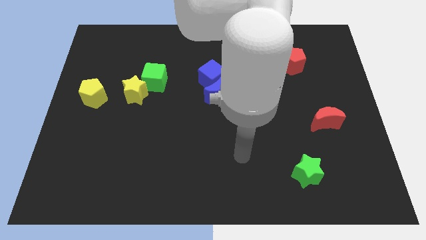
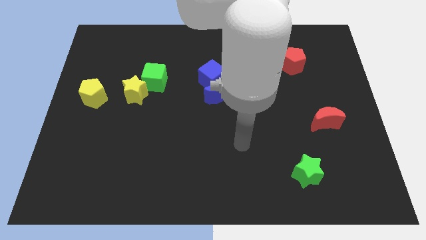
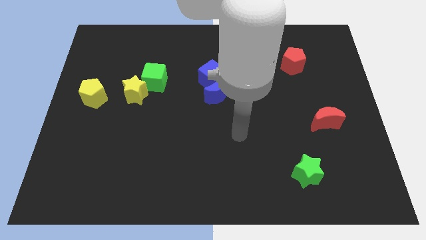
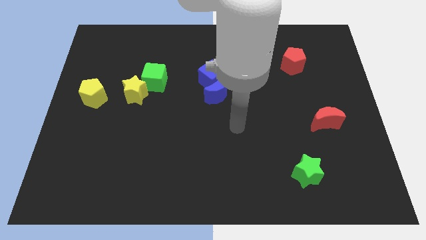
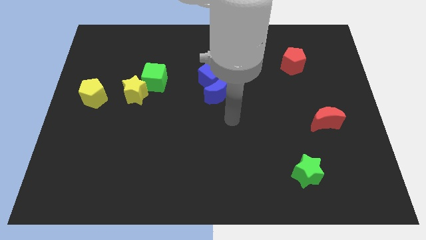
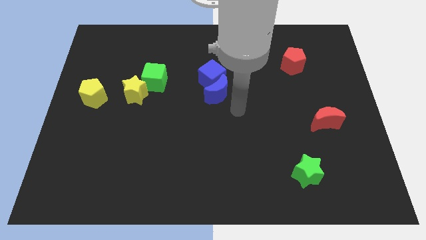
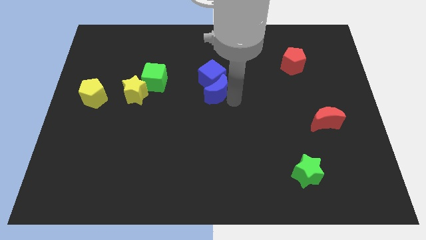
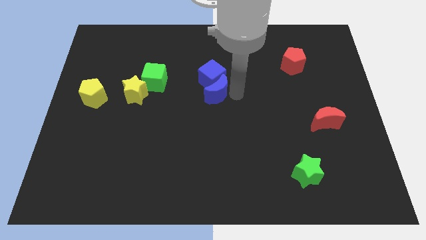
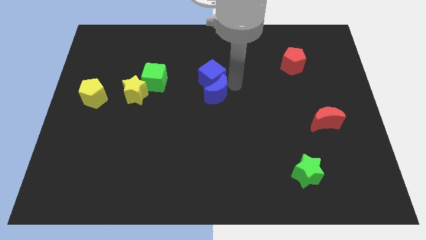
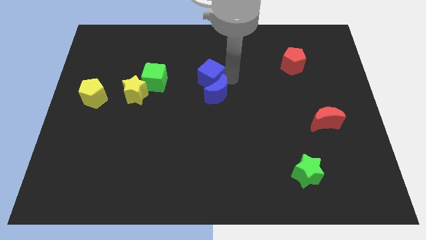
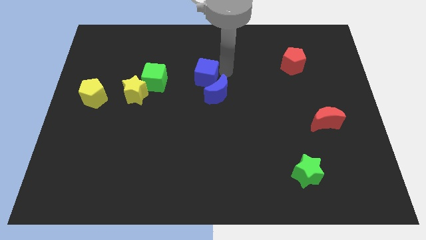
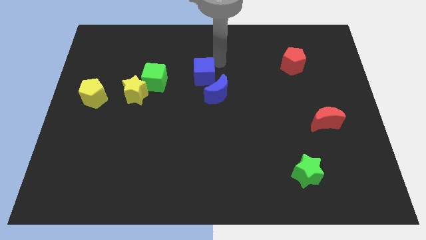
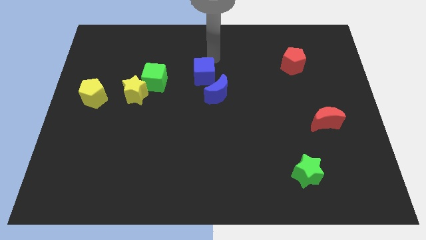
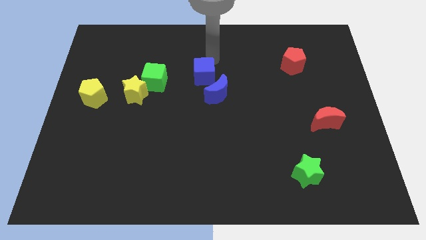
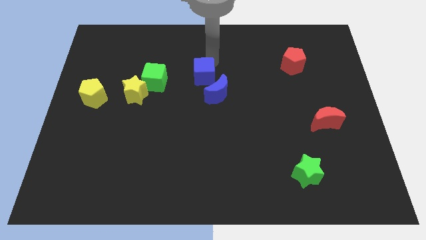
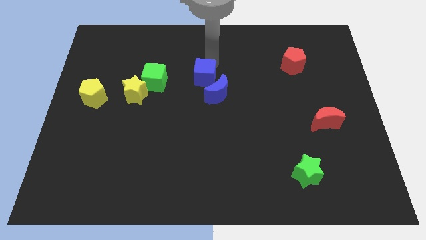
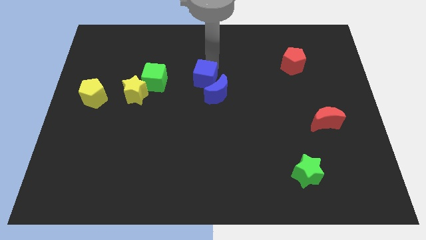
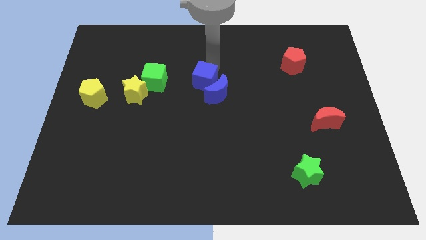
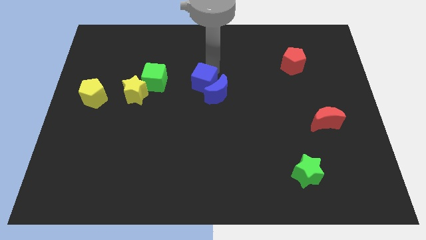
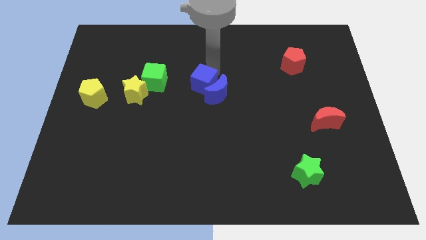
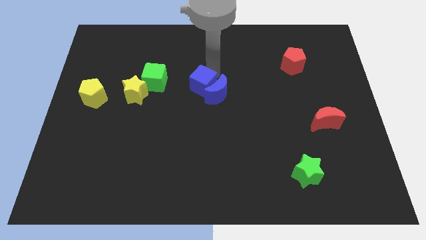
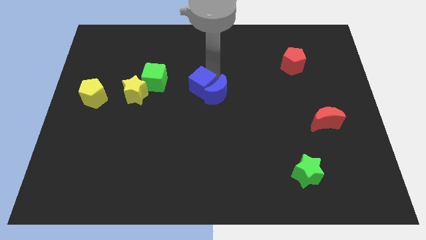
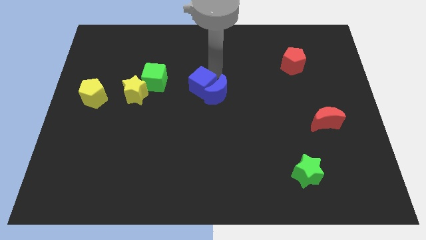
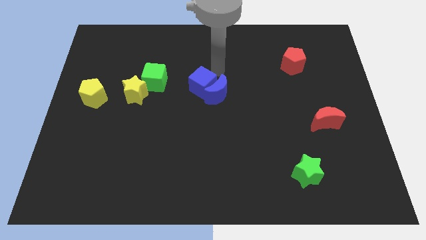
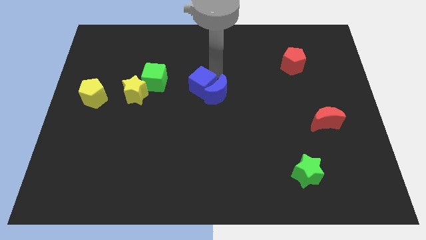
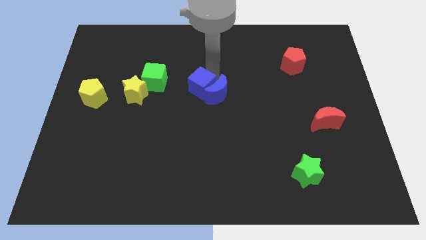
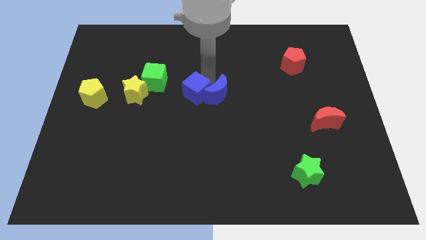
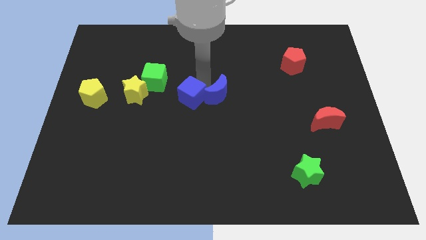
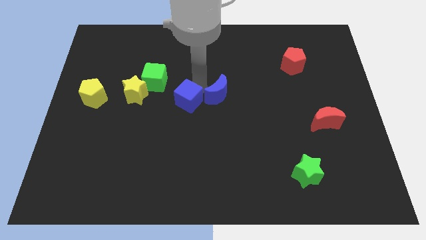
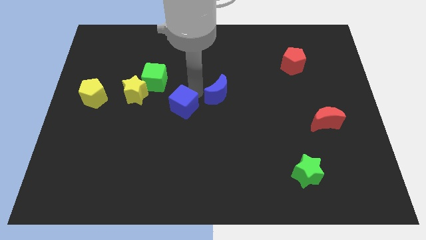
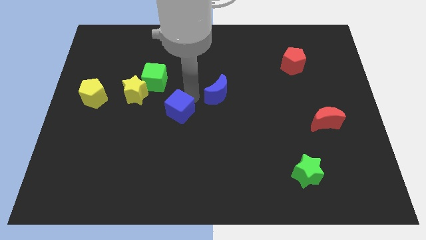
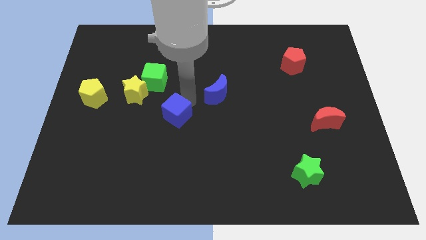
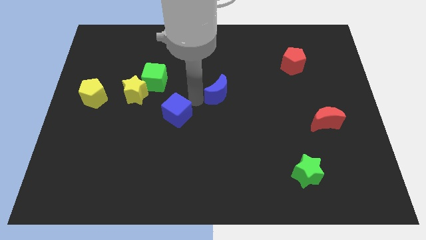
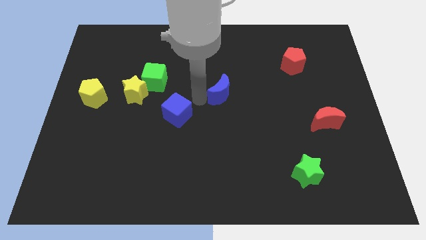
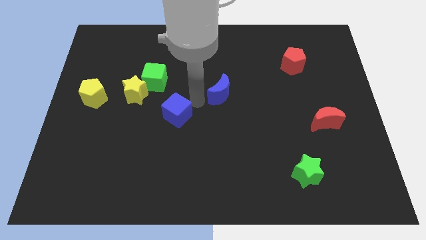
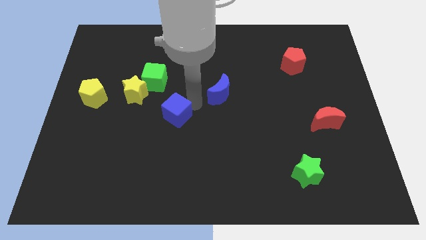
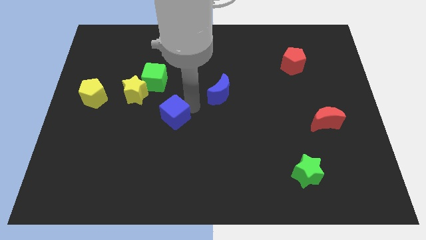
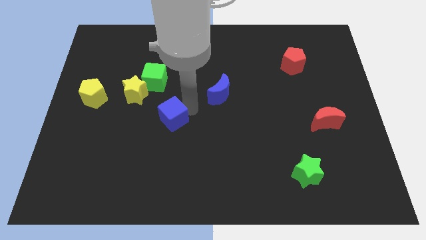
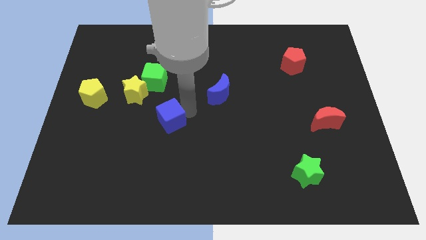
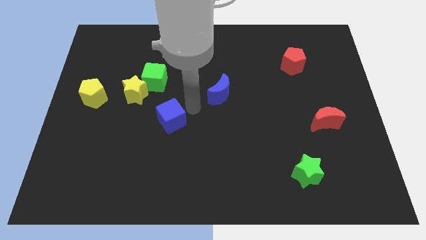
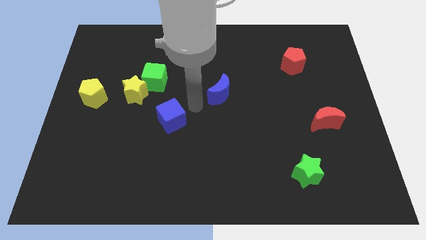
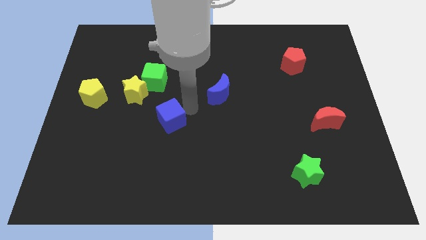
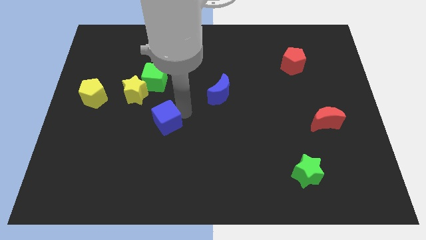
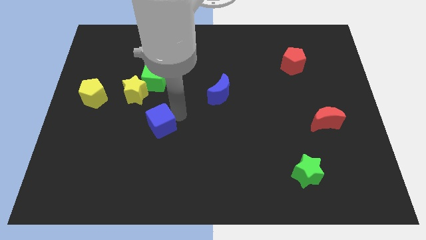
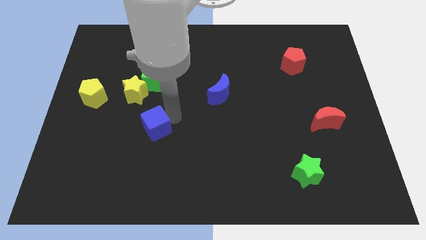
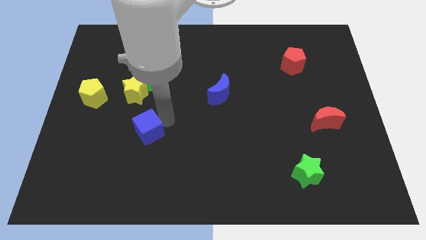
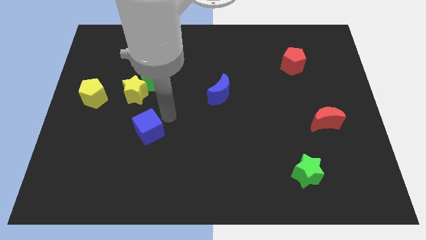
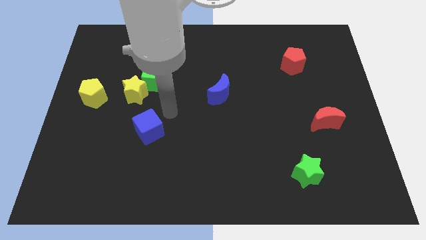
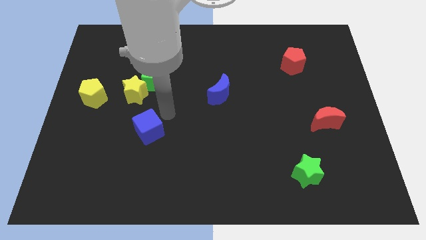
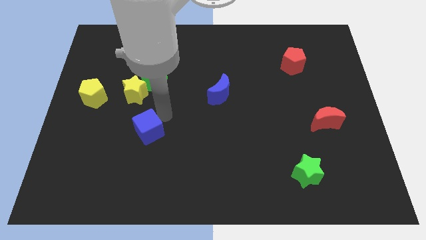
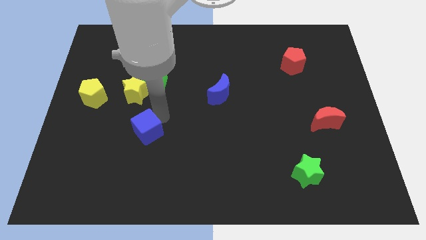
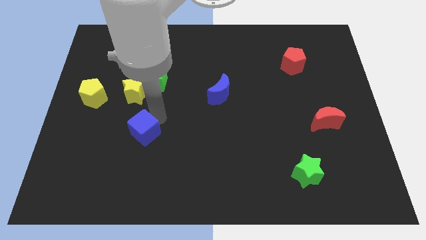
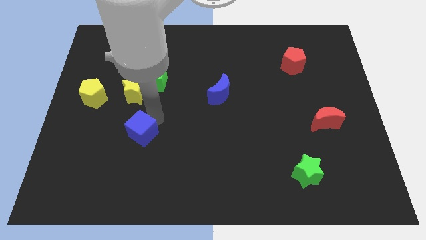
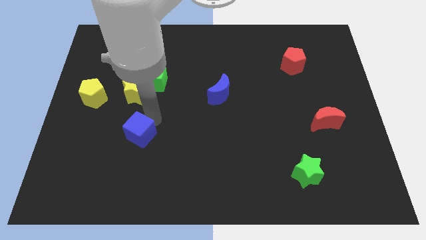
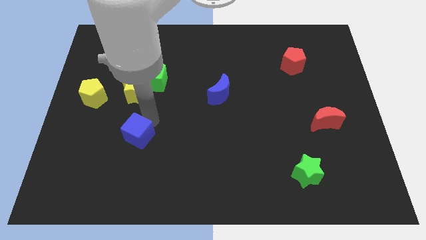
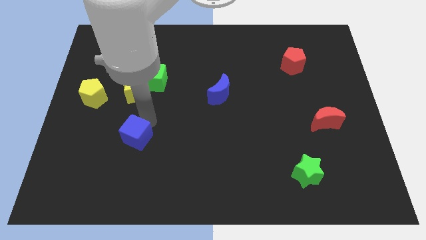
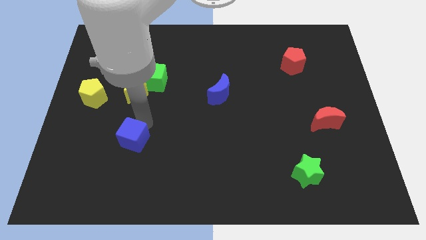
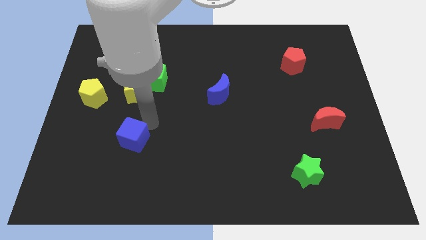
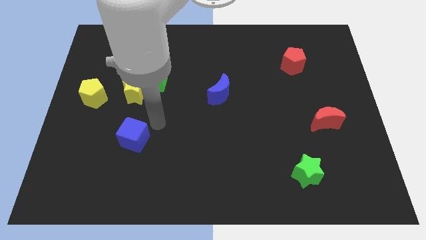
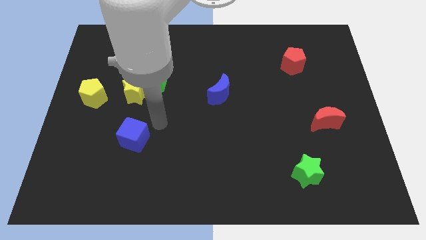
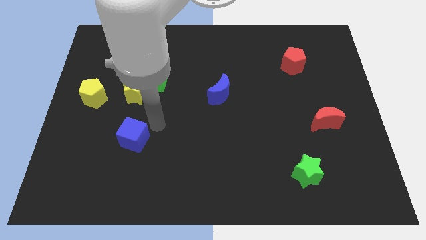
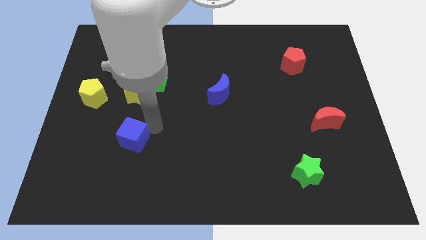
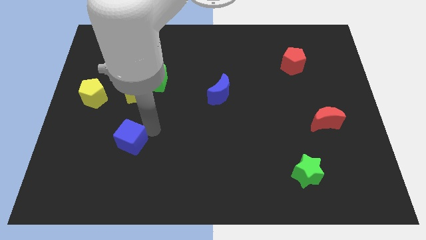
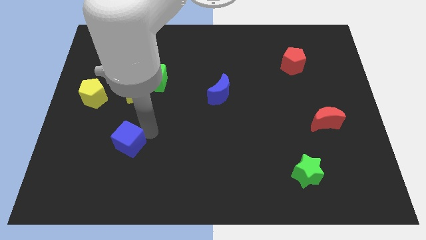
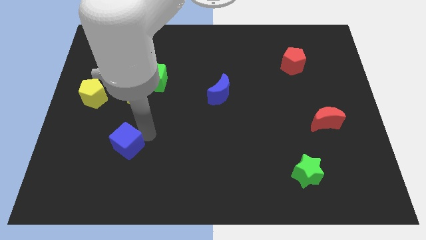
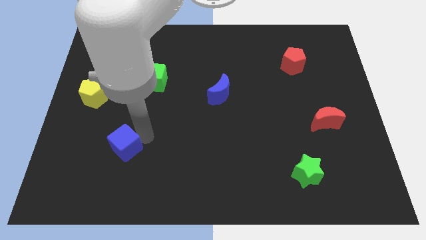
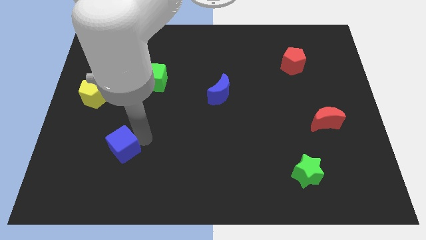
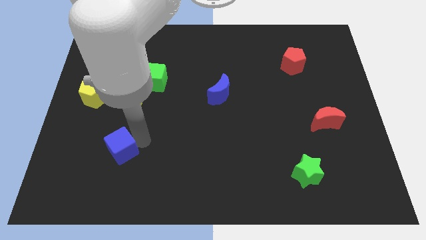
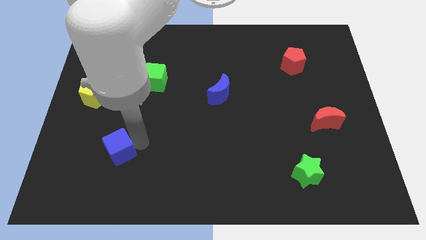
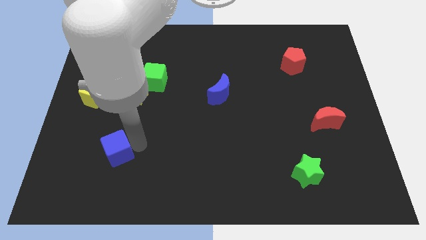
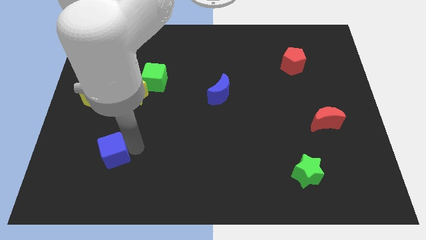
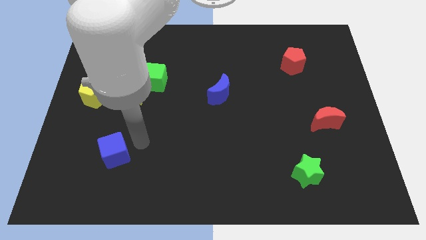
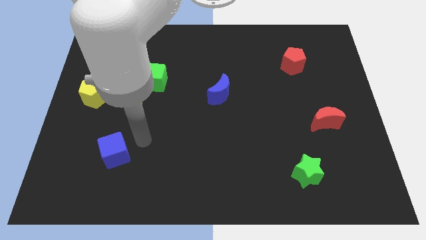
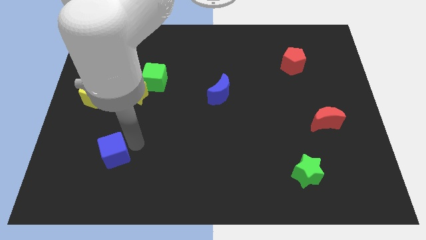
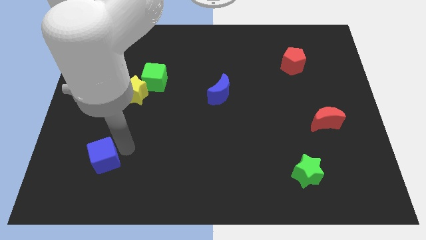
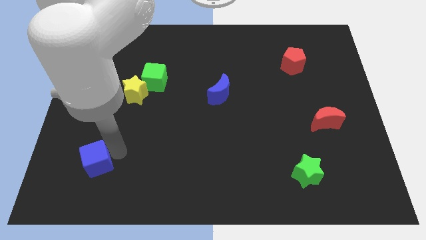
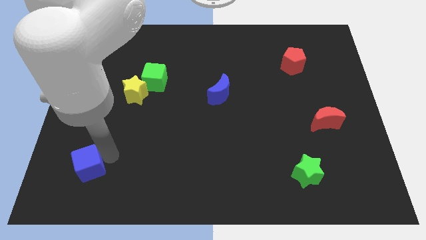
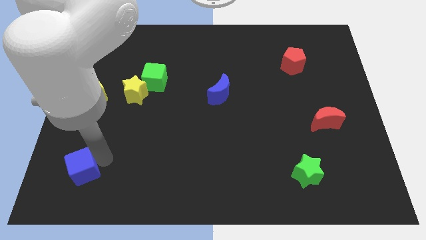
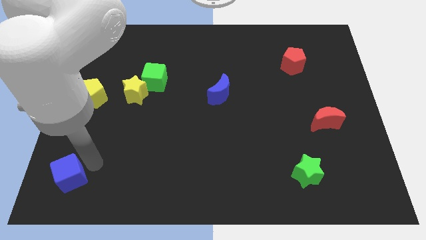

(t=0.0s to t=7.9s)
put the blue cube to the bottom left corner
